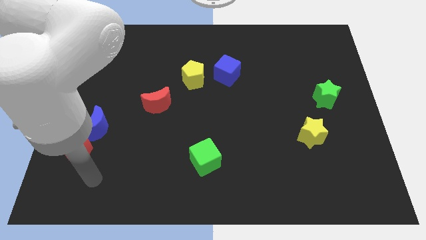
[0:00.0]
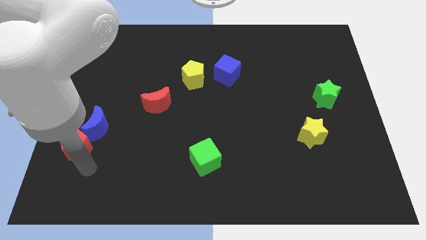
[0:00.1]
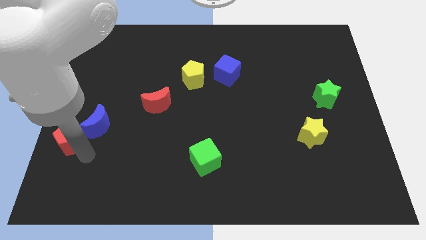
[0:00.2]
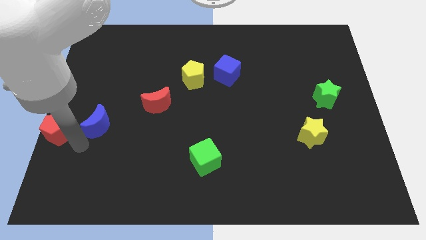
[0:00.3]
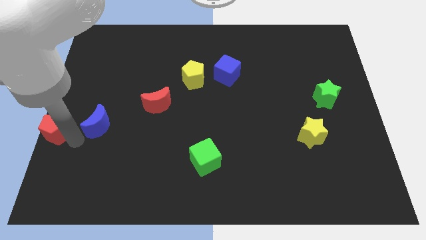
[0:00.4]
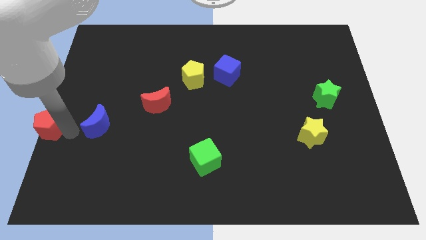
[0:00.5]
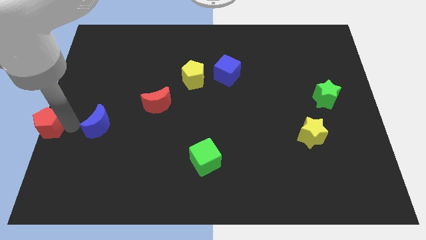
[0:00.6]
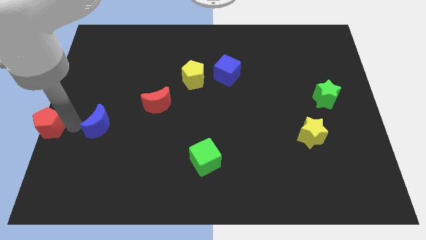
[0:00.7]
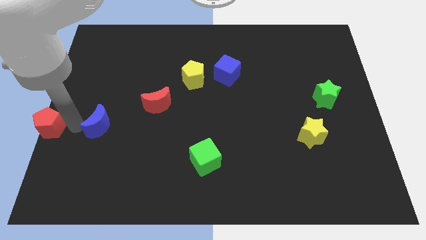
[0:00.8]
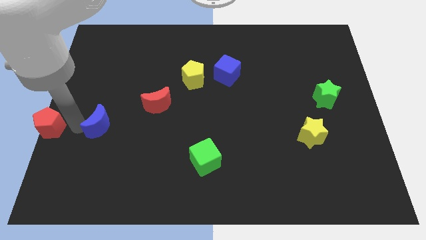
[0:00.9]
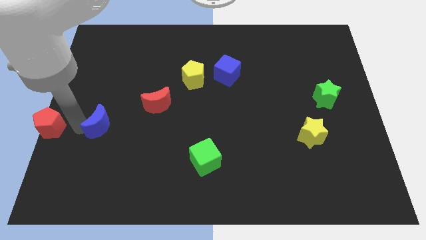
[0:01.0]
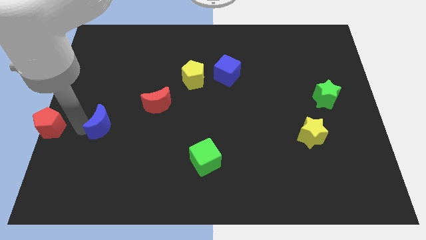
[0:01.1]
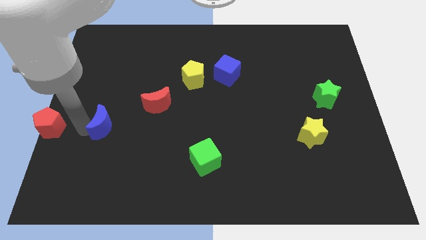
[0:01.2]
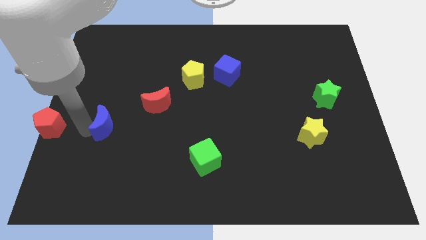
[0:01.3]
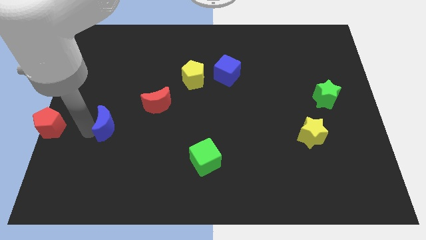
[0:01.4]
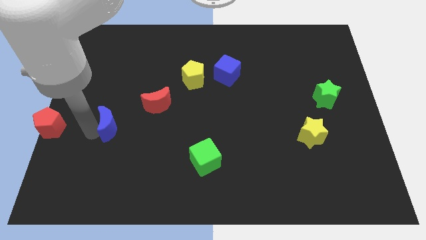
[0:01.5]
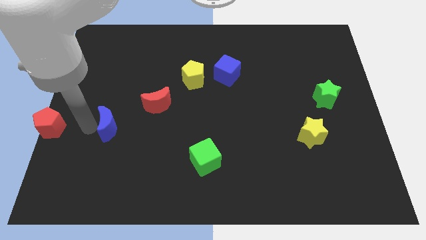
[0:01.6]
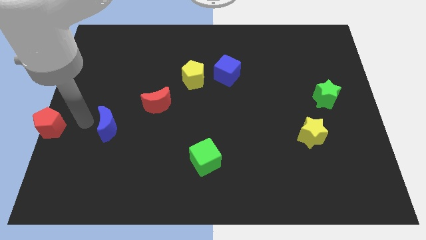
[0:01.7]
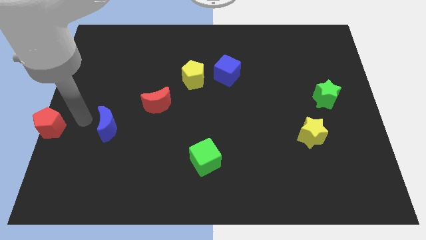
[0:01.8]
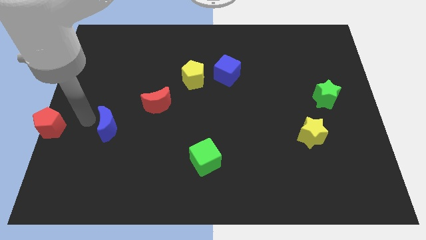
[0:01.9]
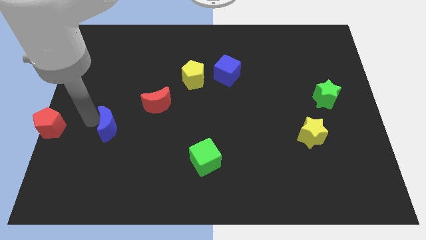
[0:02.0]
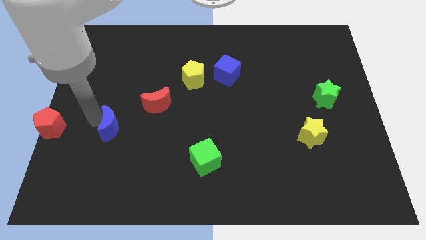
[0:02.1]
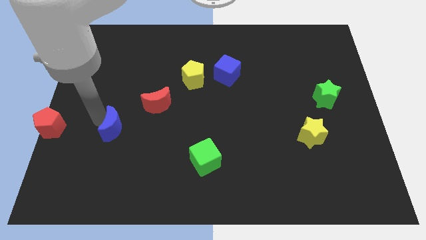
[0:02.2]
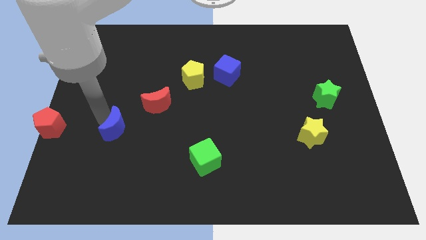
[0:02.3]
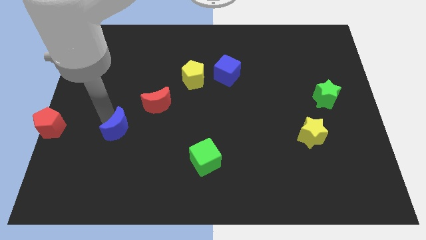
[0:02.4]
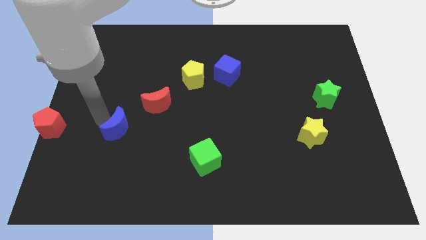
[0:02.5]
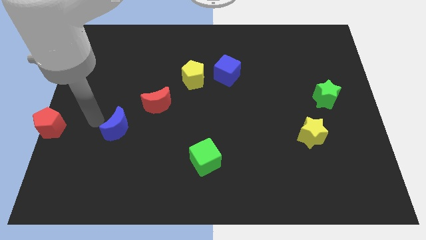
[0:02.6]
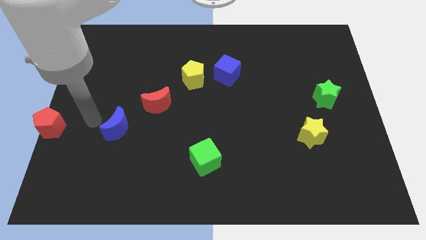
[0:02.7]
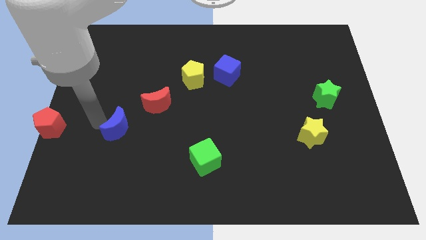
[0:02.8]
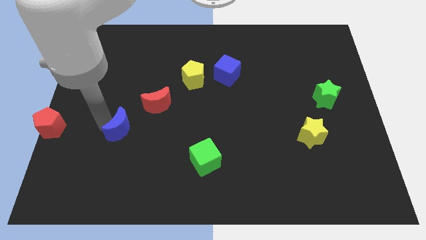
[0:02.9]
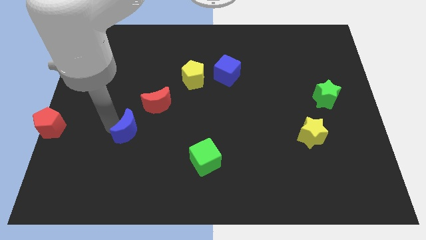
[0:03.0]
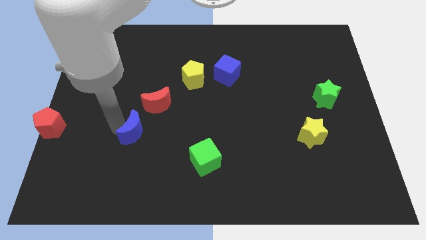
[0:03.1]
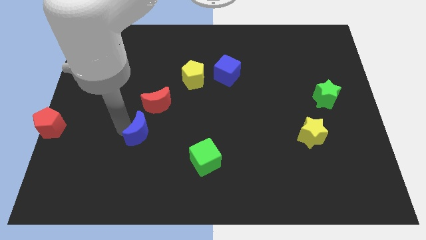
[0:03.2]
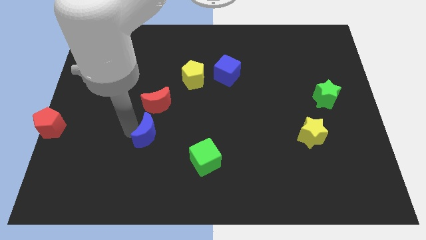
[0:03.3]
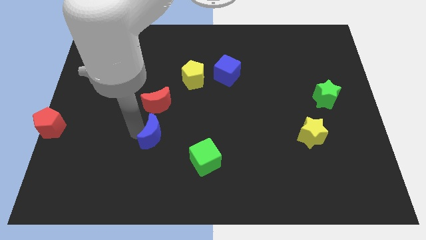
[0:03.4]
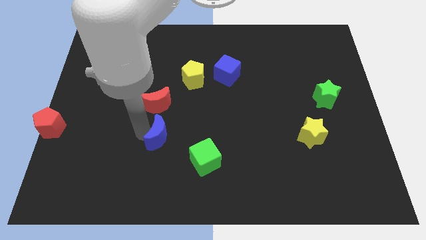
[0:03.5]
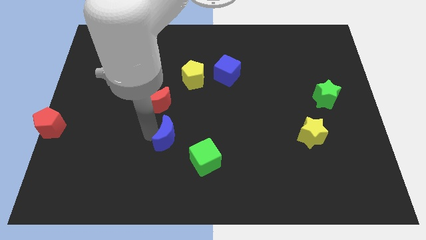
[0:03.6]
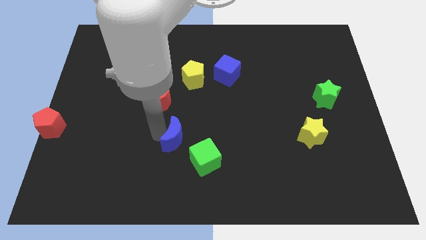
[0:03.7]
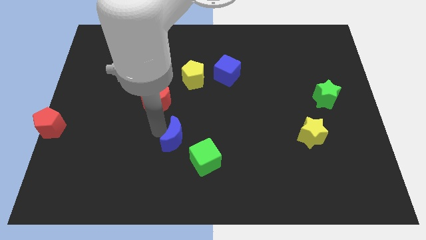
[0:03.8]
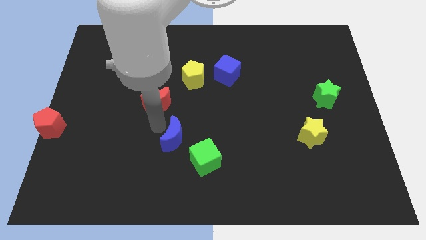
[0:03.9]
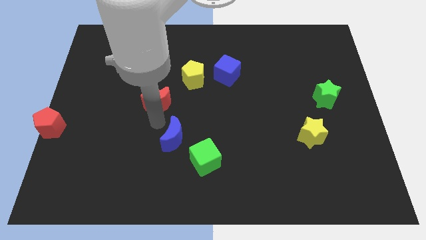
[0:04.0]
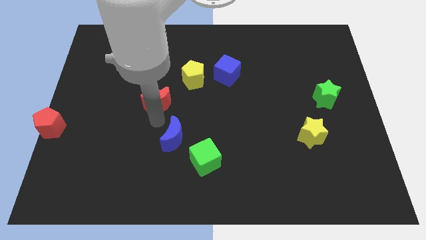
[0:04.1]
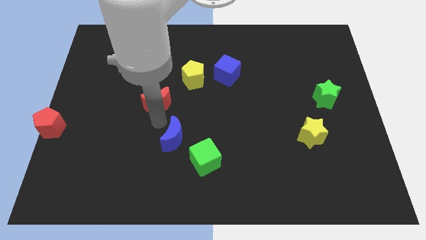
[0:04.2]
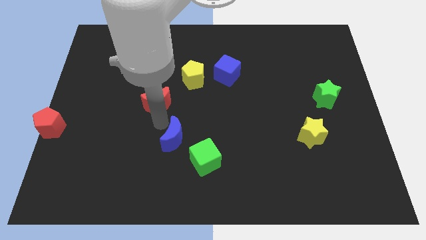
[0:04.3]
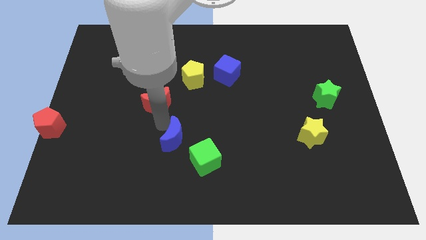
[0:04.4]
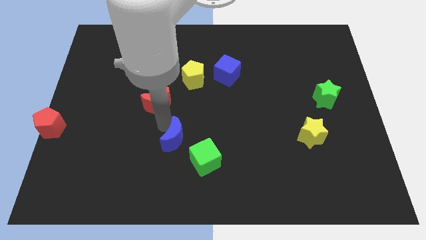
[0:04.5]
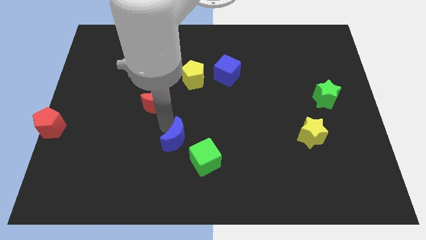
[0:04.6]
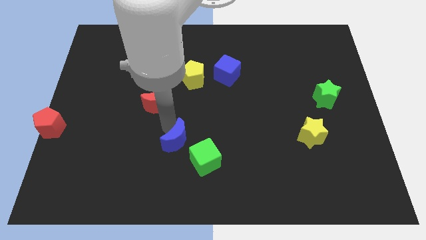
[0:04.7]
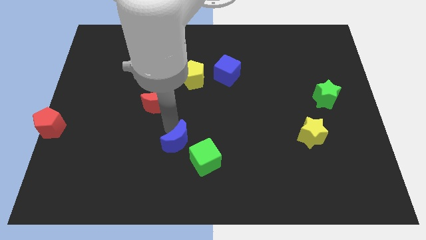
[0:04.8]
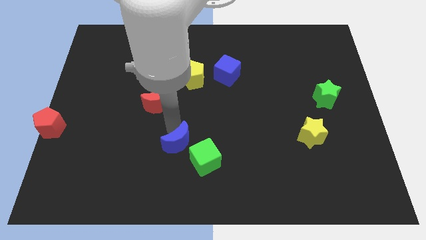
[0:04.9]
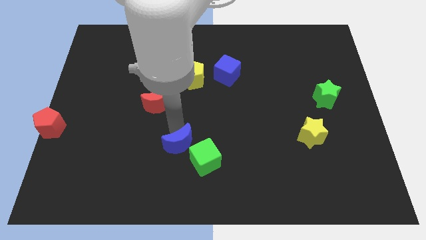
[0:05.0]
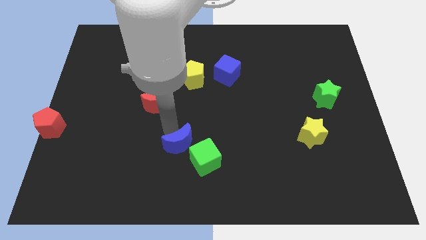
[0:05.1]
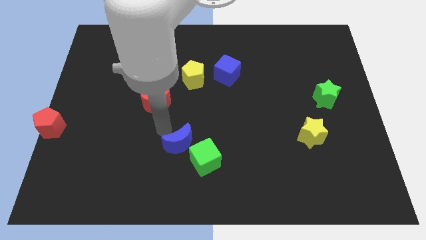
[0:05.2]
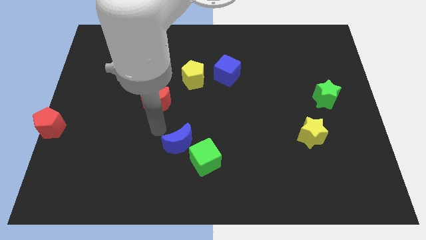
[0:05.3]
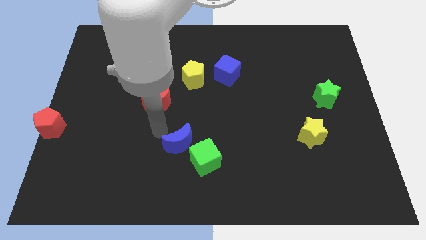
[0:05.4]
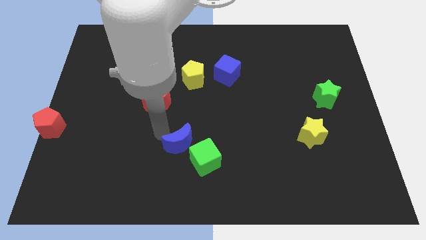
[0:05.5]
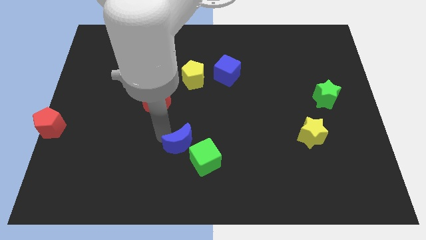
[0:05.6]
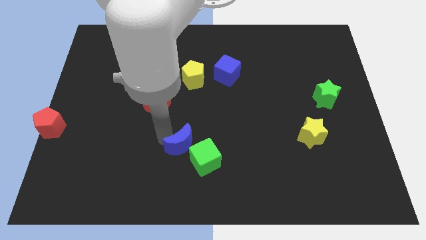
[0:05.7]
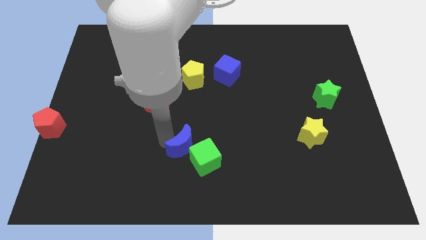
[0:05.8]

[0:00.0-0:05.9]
slide the blue moon towards the green cube

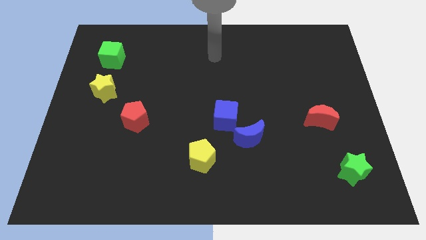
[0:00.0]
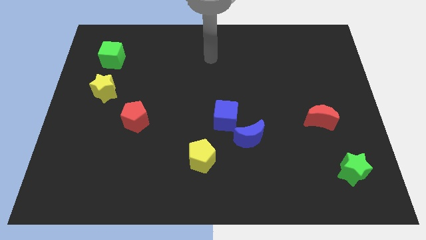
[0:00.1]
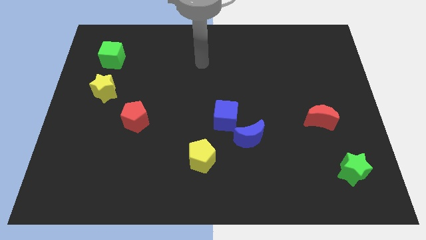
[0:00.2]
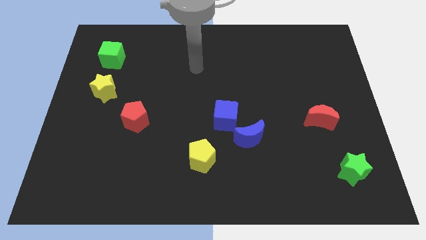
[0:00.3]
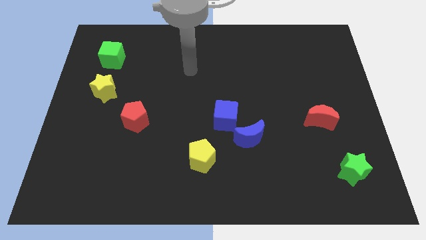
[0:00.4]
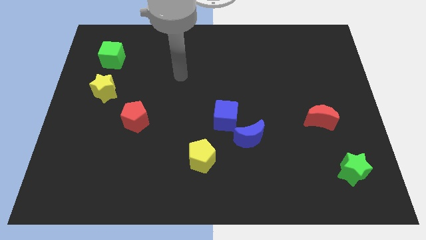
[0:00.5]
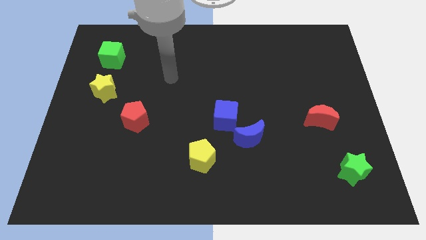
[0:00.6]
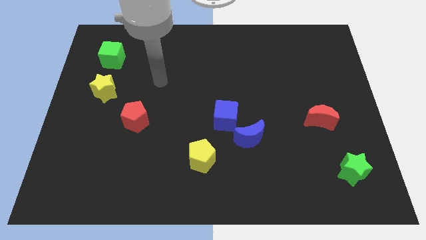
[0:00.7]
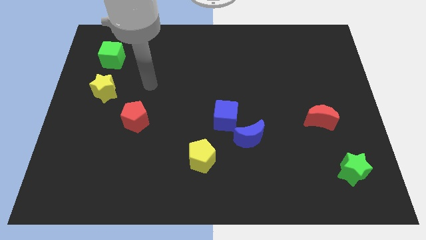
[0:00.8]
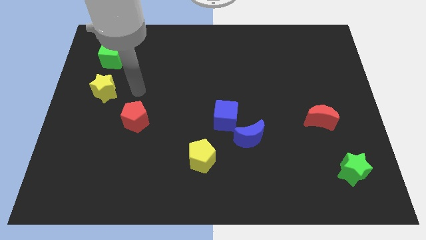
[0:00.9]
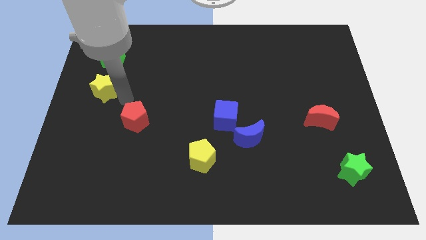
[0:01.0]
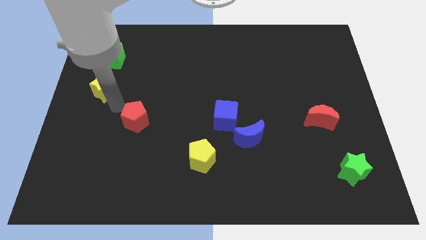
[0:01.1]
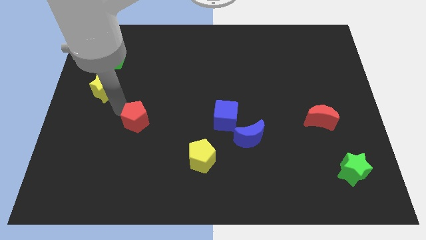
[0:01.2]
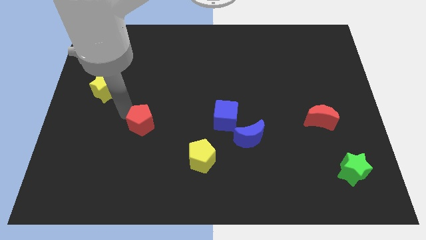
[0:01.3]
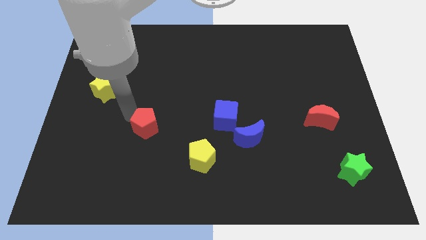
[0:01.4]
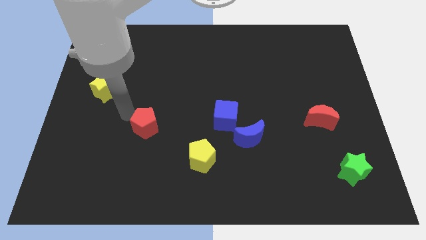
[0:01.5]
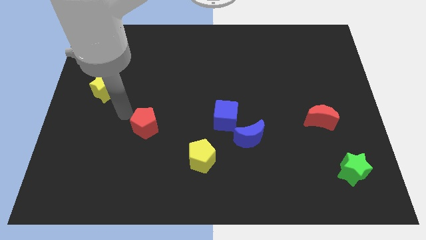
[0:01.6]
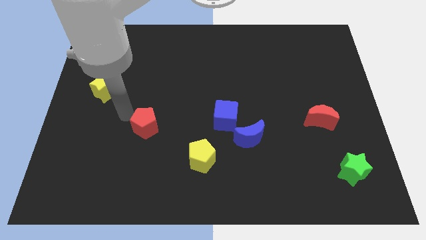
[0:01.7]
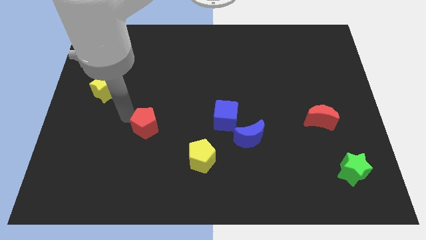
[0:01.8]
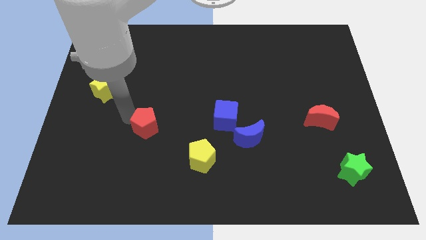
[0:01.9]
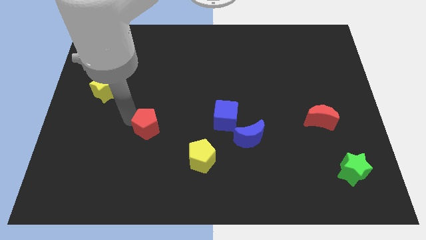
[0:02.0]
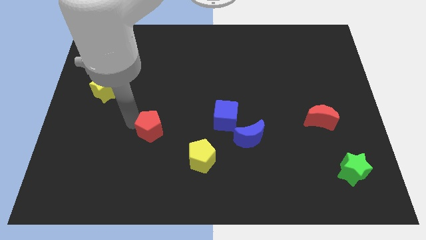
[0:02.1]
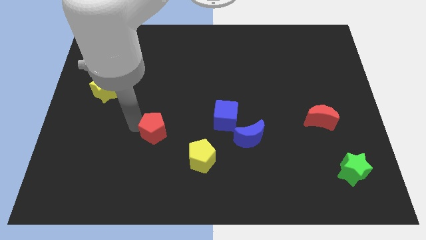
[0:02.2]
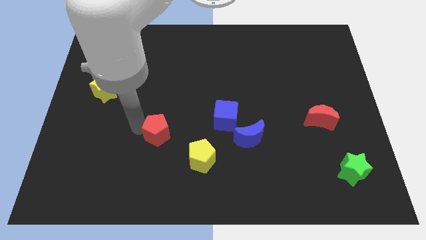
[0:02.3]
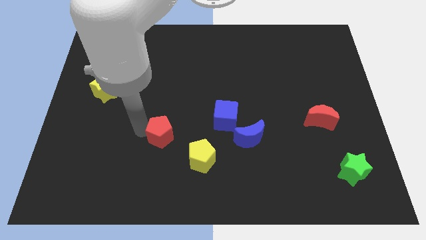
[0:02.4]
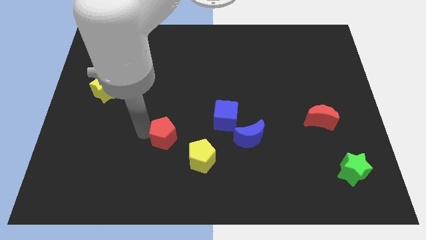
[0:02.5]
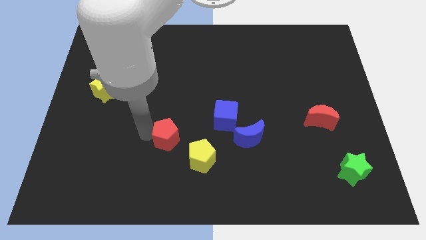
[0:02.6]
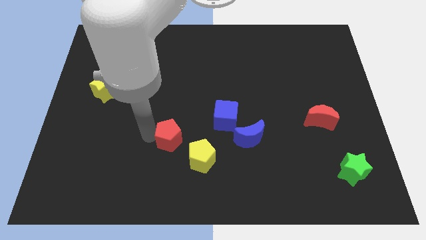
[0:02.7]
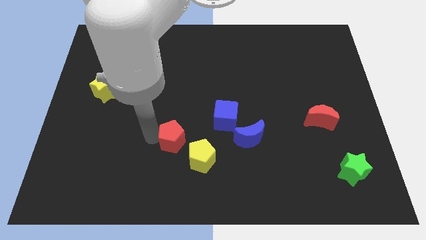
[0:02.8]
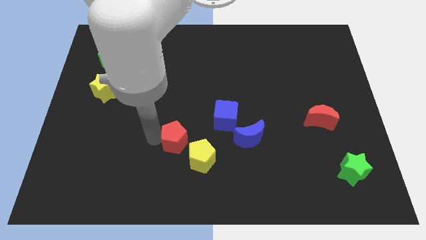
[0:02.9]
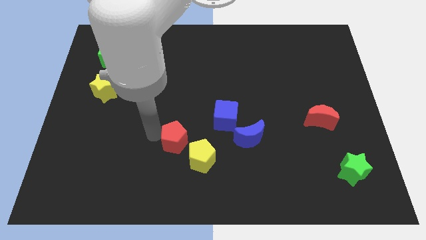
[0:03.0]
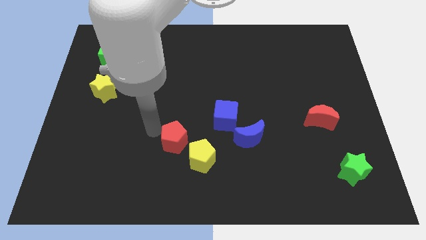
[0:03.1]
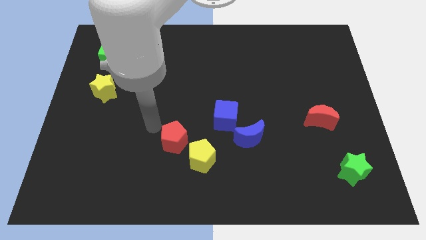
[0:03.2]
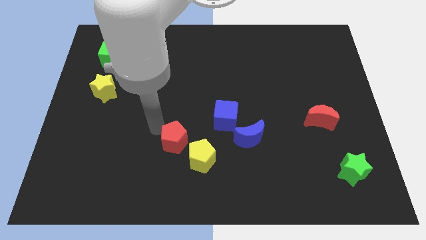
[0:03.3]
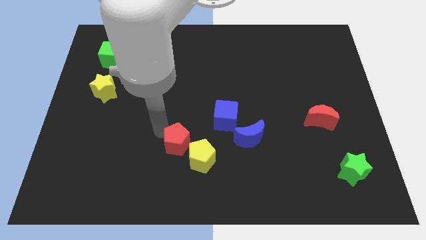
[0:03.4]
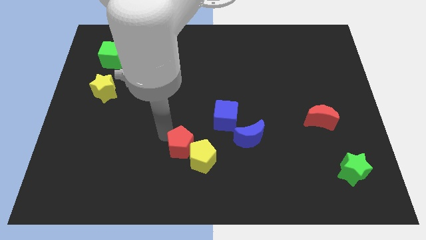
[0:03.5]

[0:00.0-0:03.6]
put the red pentagon towards the yellow pentagon
